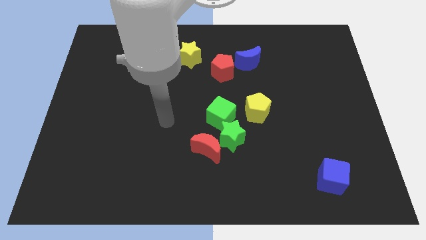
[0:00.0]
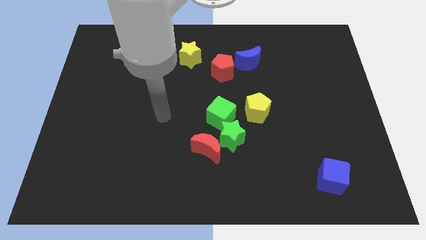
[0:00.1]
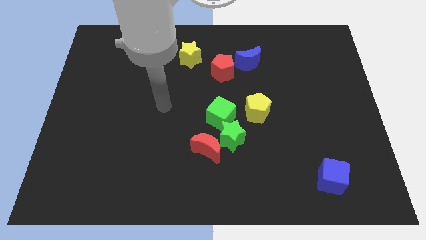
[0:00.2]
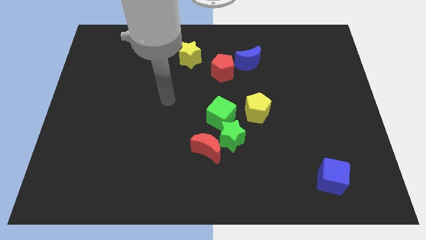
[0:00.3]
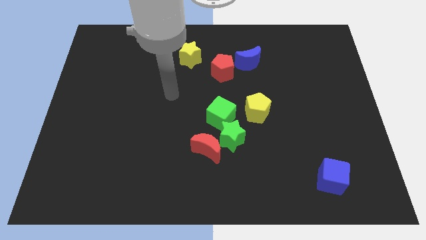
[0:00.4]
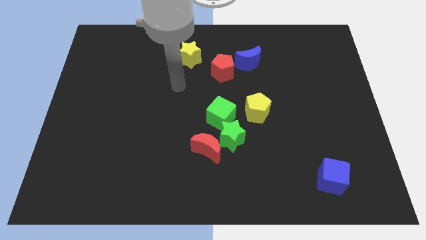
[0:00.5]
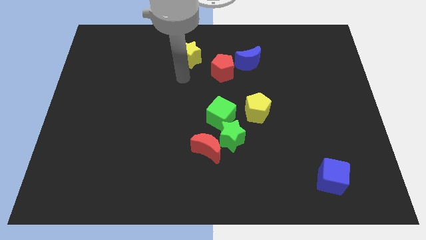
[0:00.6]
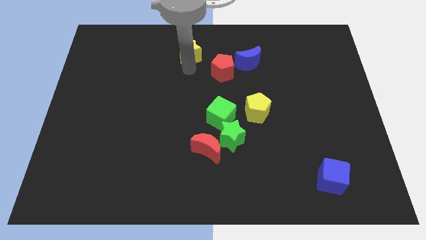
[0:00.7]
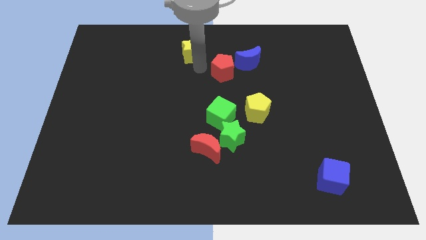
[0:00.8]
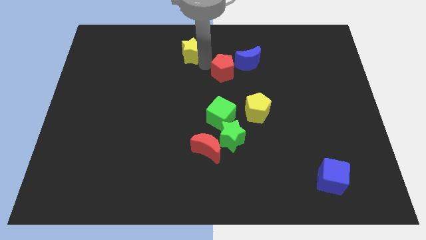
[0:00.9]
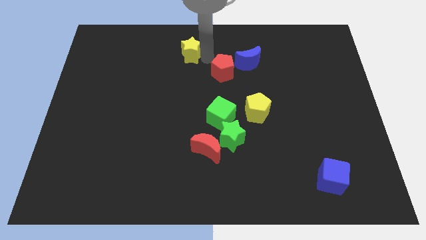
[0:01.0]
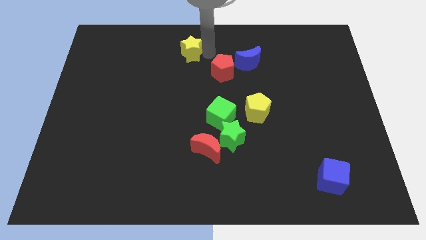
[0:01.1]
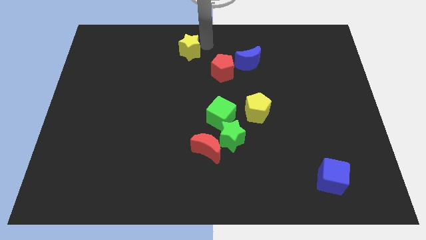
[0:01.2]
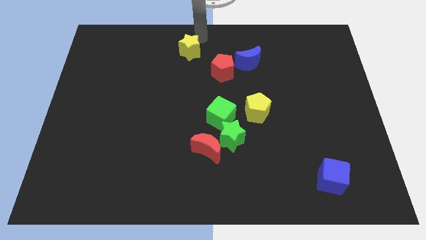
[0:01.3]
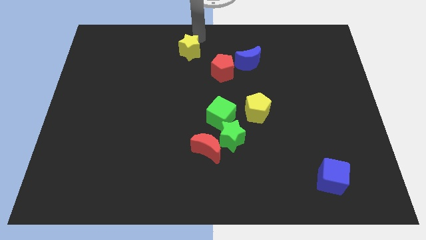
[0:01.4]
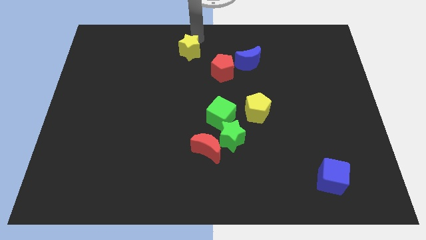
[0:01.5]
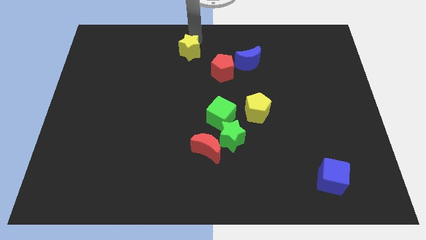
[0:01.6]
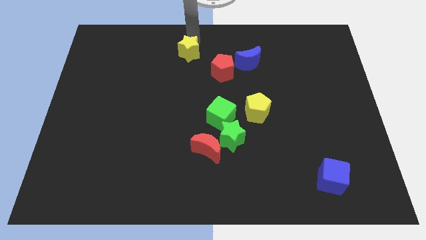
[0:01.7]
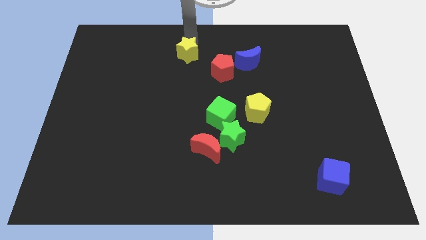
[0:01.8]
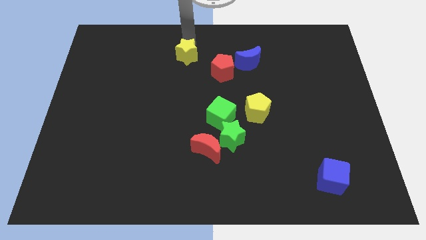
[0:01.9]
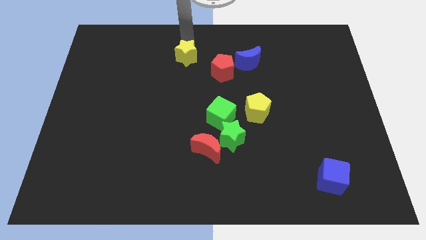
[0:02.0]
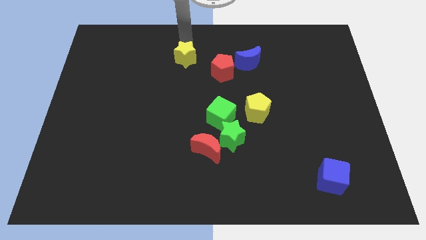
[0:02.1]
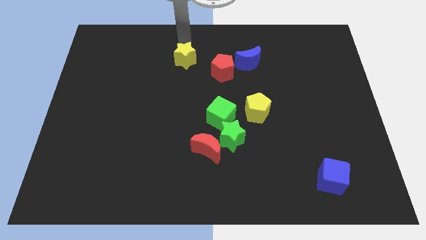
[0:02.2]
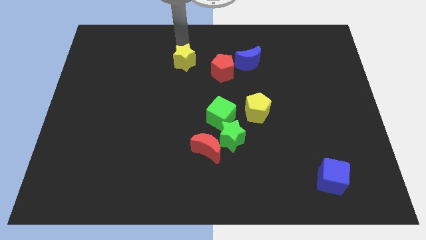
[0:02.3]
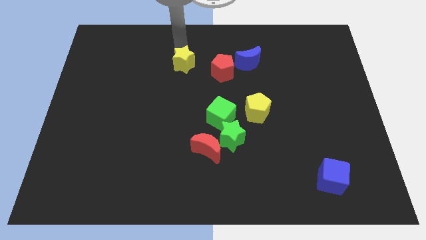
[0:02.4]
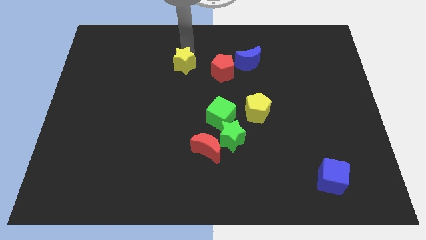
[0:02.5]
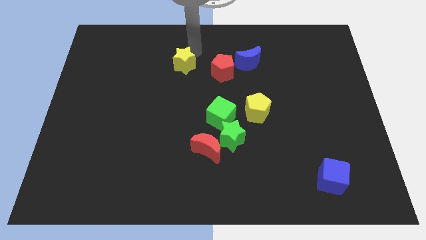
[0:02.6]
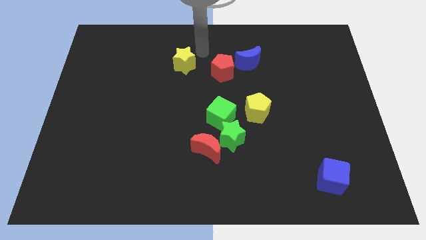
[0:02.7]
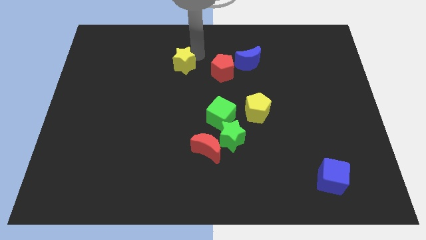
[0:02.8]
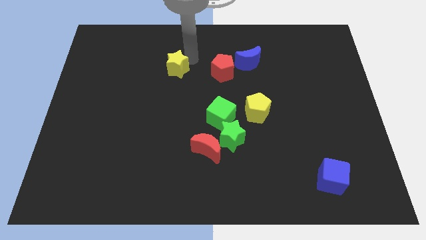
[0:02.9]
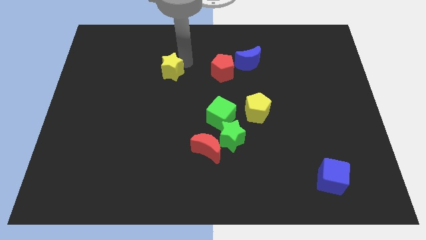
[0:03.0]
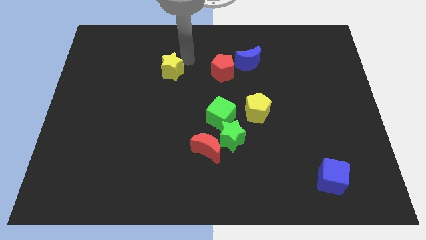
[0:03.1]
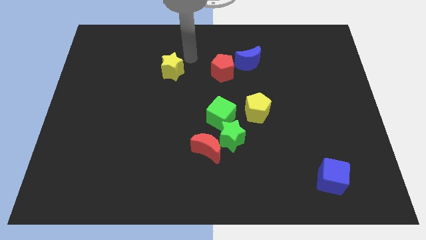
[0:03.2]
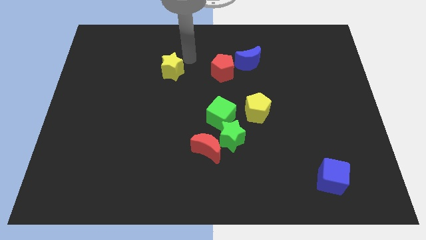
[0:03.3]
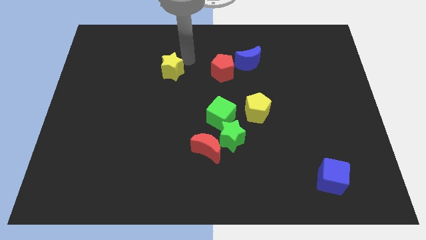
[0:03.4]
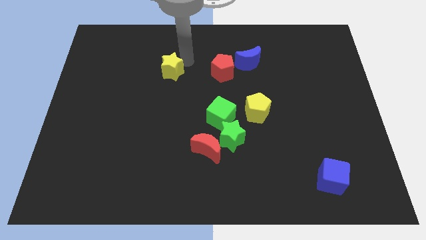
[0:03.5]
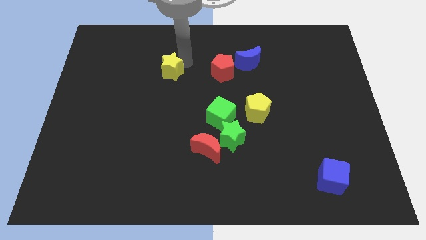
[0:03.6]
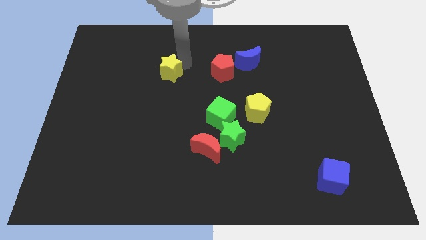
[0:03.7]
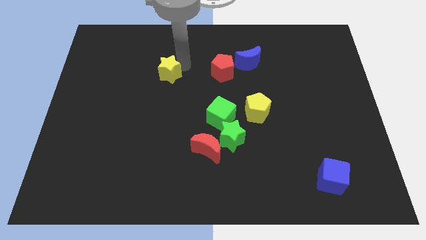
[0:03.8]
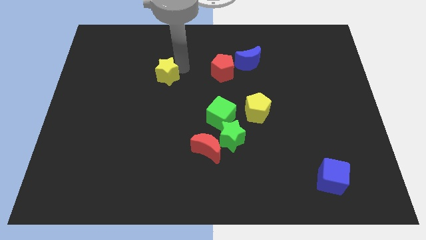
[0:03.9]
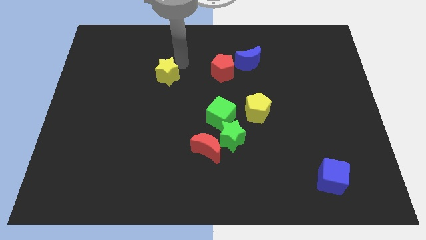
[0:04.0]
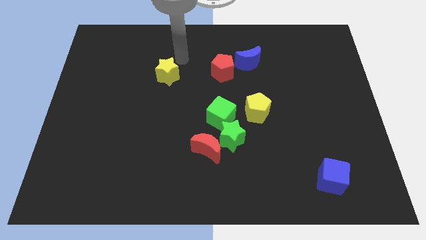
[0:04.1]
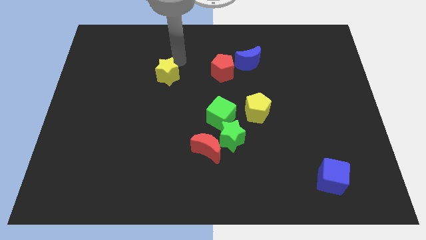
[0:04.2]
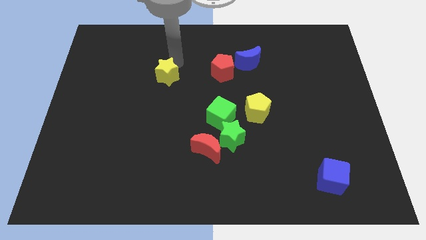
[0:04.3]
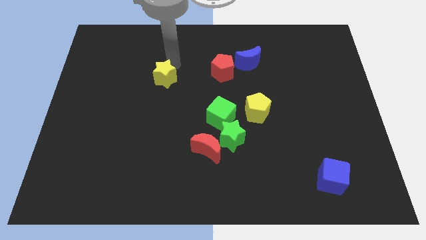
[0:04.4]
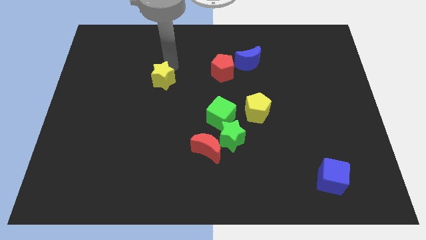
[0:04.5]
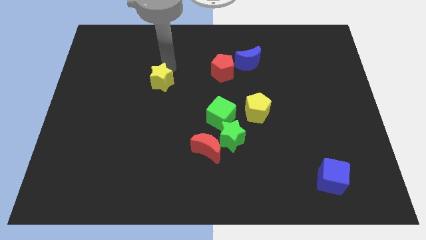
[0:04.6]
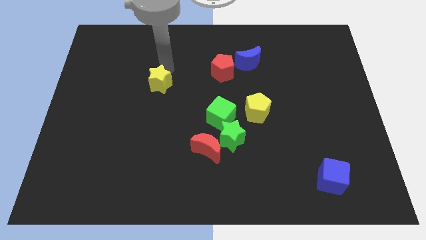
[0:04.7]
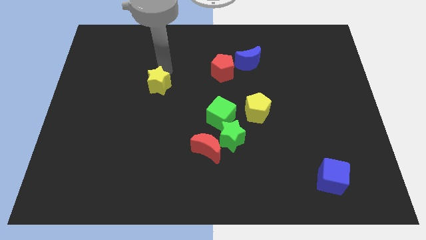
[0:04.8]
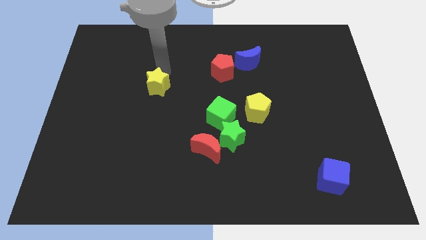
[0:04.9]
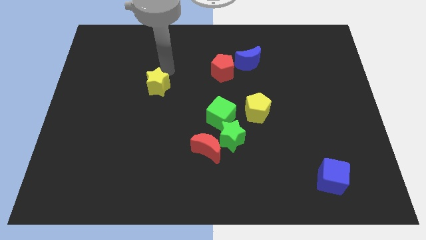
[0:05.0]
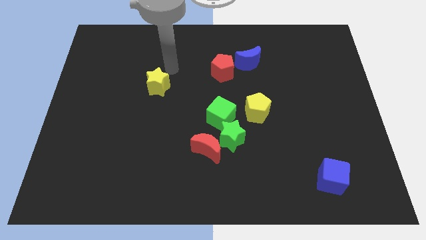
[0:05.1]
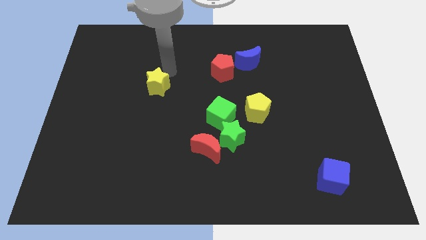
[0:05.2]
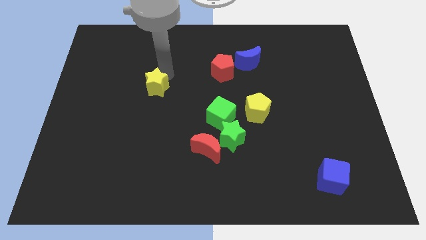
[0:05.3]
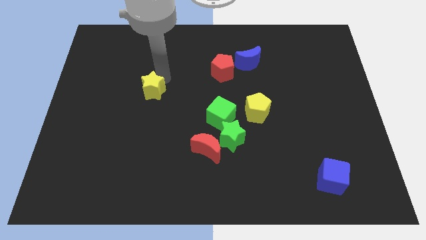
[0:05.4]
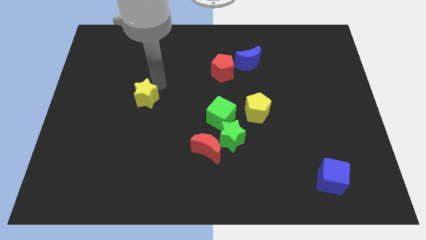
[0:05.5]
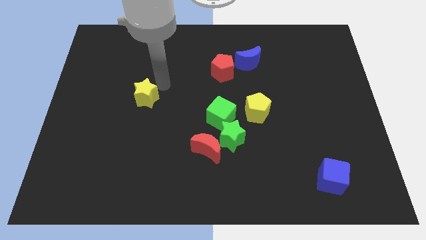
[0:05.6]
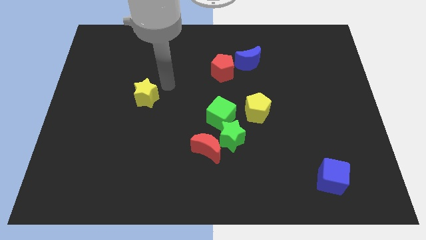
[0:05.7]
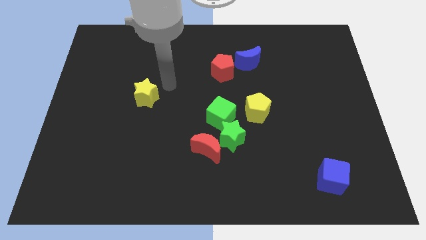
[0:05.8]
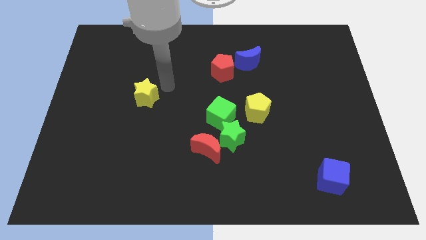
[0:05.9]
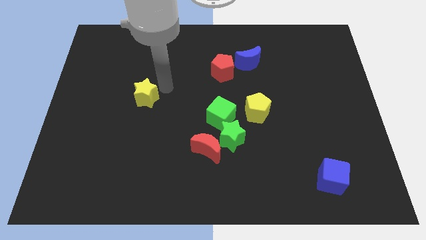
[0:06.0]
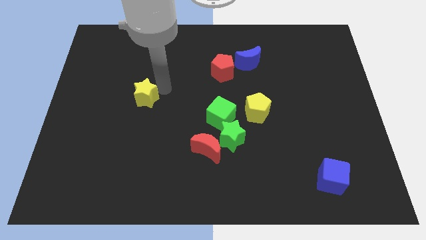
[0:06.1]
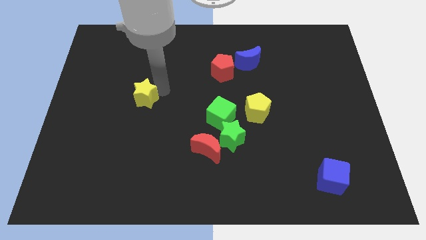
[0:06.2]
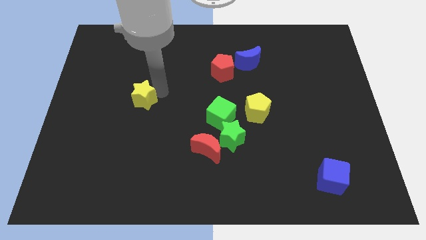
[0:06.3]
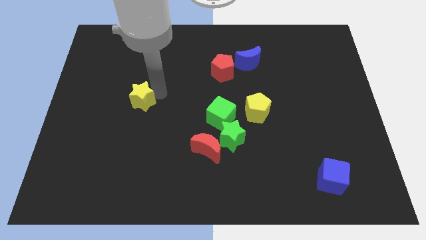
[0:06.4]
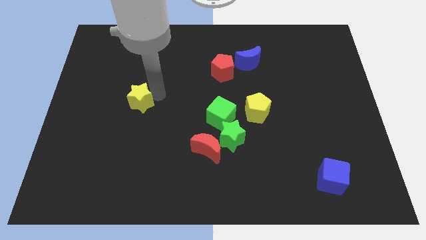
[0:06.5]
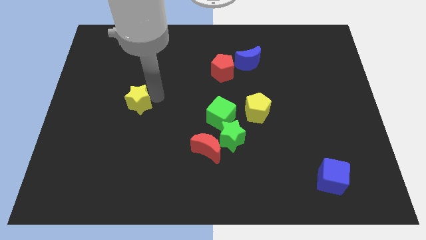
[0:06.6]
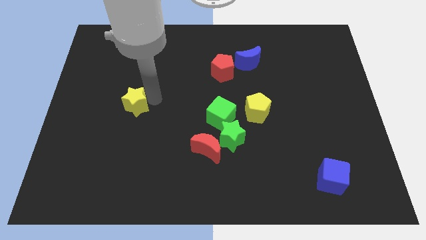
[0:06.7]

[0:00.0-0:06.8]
move the yellow star downwards and left diagonally

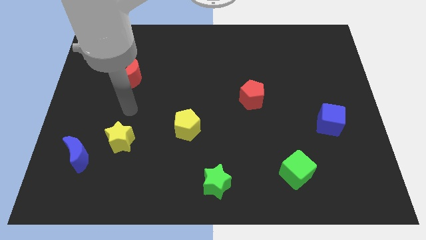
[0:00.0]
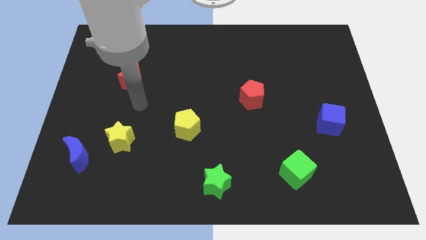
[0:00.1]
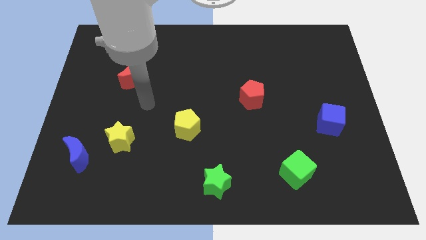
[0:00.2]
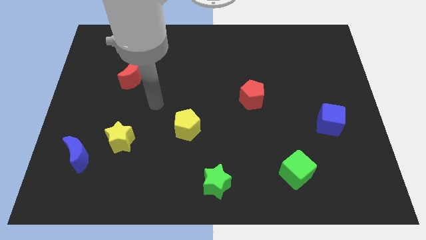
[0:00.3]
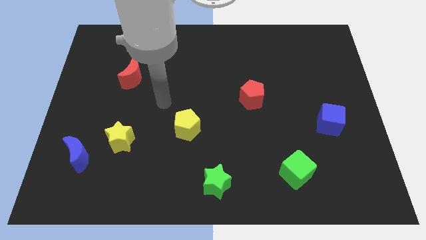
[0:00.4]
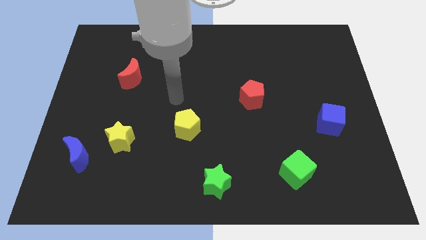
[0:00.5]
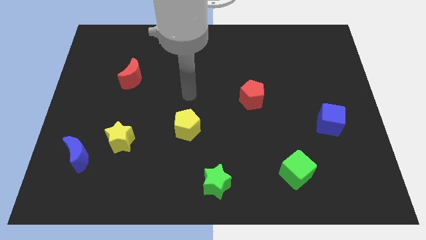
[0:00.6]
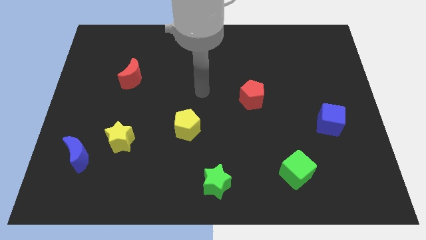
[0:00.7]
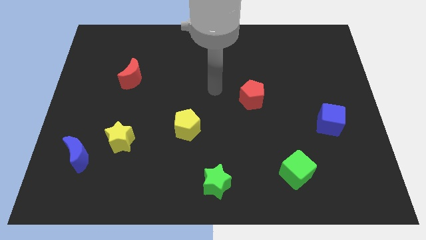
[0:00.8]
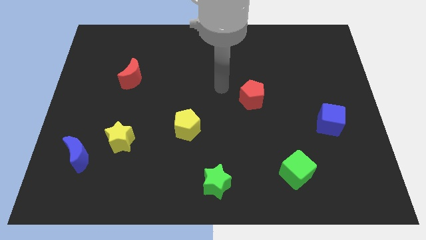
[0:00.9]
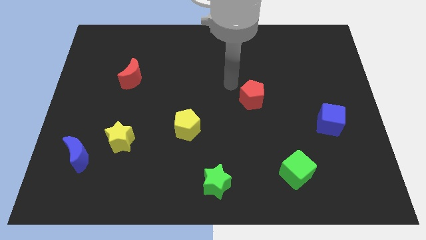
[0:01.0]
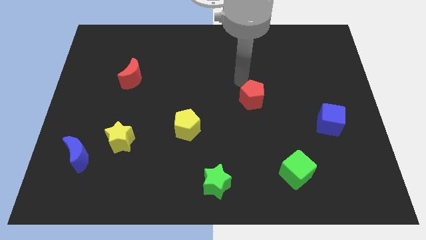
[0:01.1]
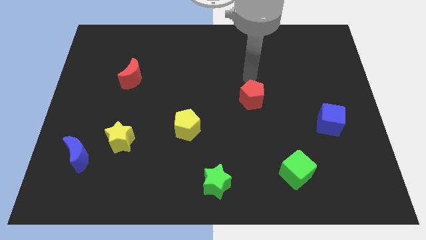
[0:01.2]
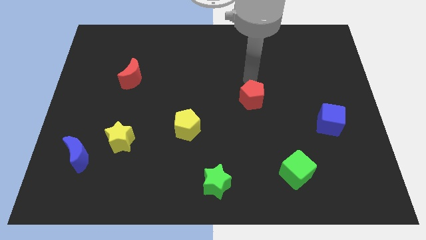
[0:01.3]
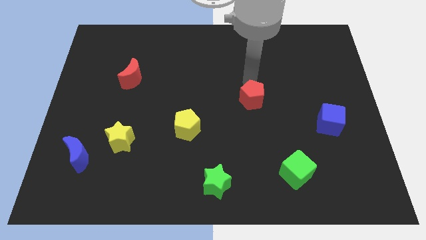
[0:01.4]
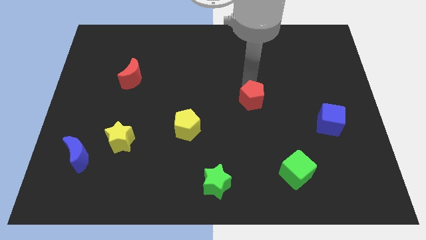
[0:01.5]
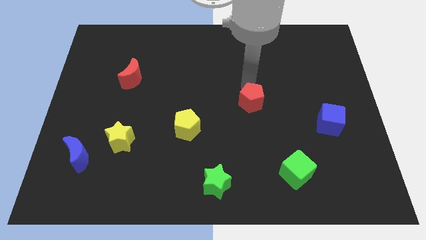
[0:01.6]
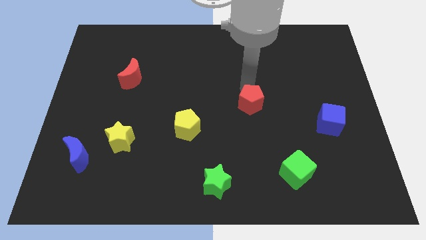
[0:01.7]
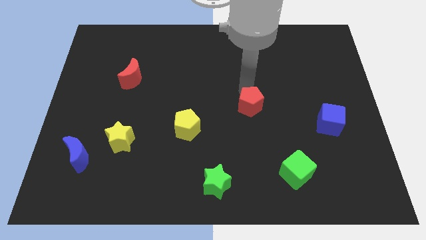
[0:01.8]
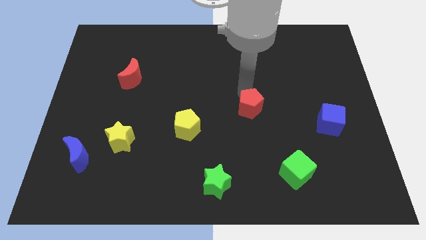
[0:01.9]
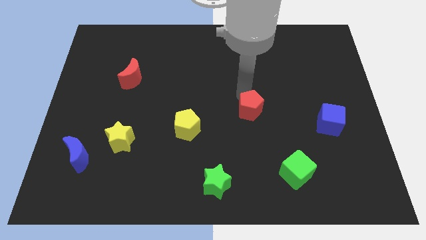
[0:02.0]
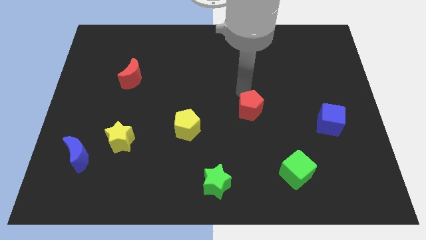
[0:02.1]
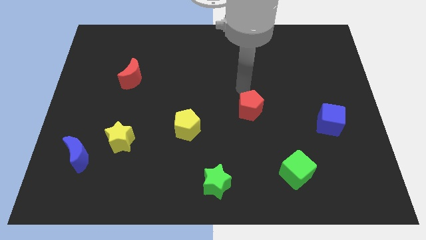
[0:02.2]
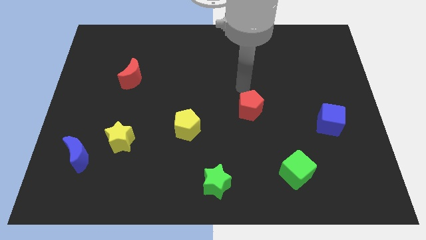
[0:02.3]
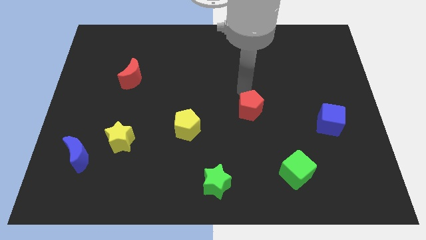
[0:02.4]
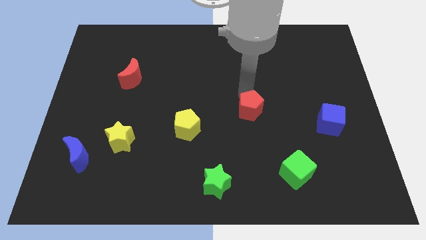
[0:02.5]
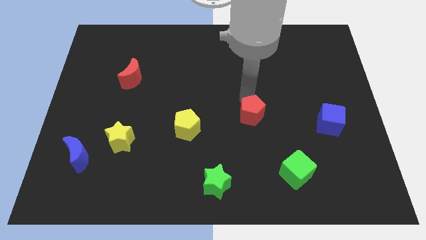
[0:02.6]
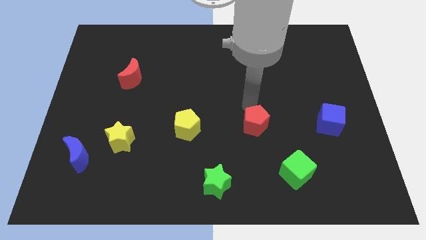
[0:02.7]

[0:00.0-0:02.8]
slightly slide the red pentagon down
